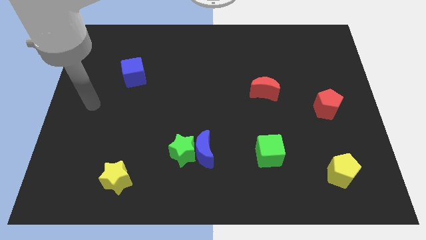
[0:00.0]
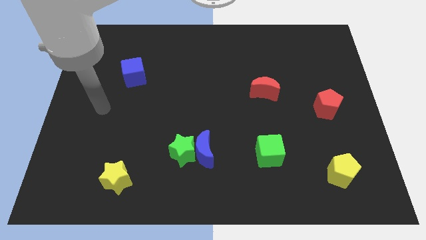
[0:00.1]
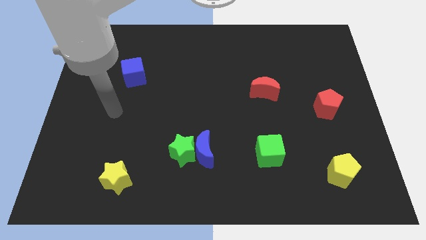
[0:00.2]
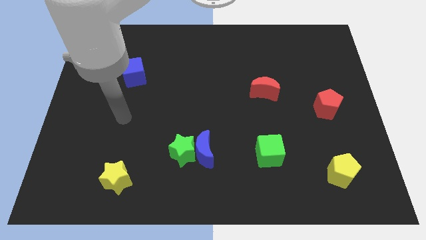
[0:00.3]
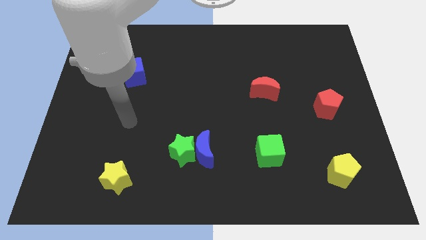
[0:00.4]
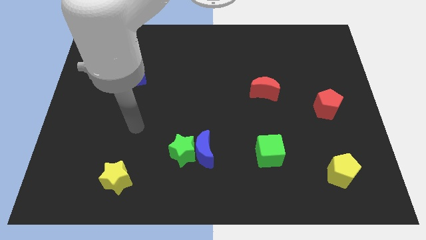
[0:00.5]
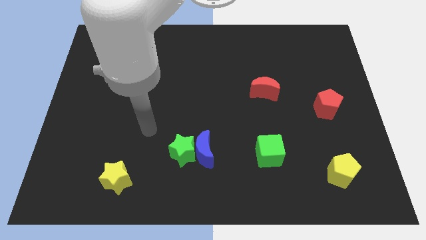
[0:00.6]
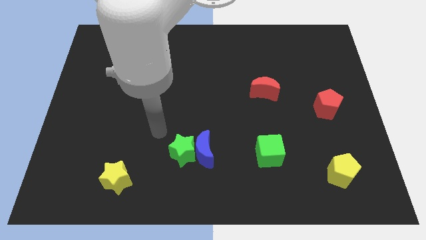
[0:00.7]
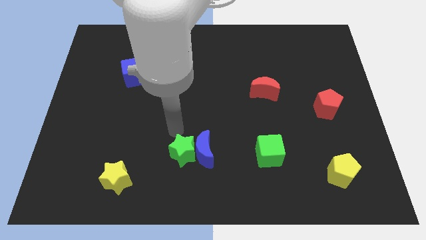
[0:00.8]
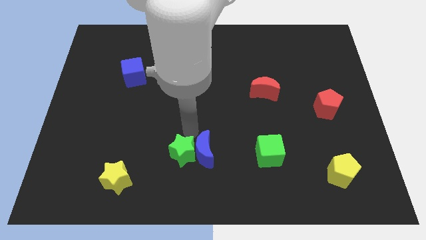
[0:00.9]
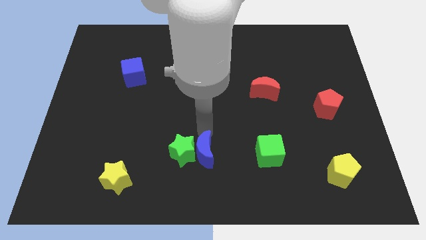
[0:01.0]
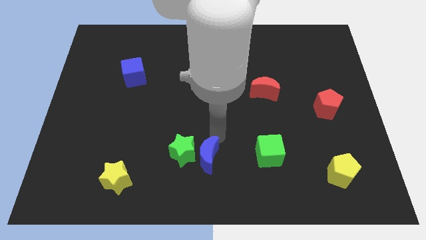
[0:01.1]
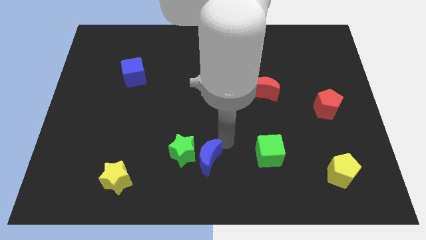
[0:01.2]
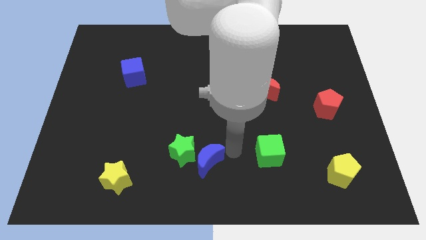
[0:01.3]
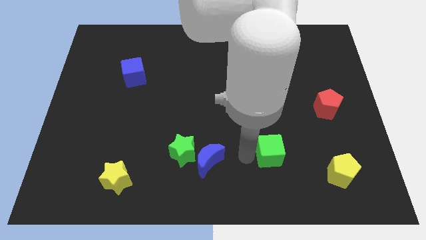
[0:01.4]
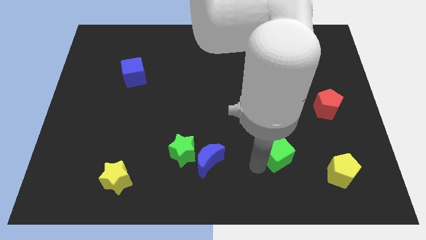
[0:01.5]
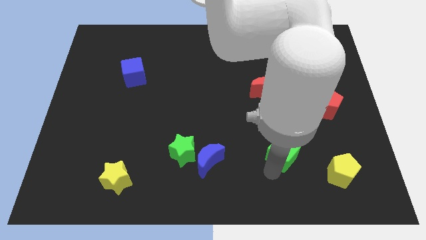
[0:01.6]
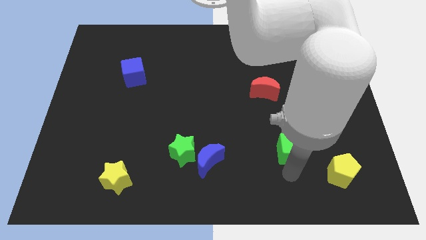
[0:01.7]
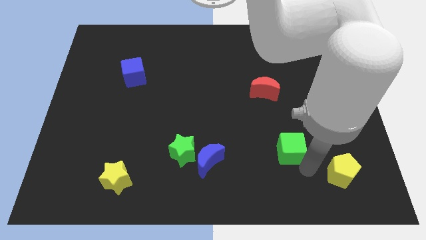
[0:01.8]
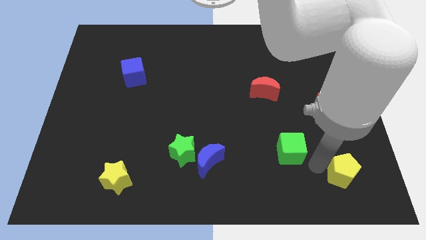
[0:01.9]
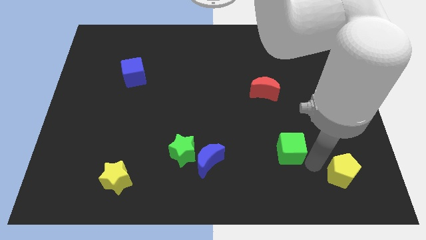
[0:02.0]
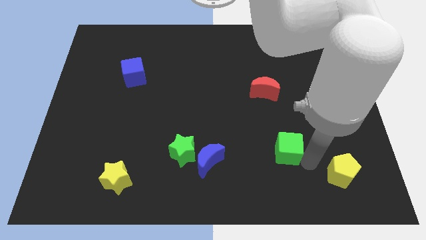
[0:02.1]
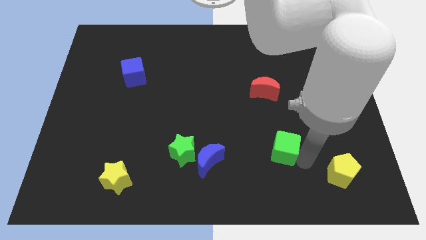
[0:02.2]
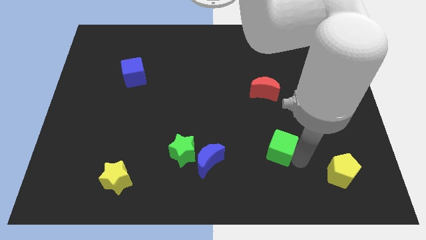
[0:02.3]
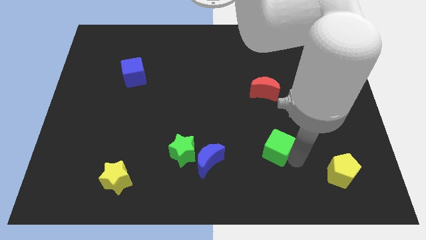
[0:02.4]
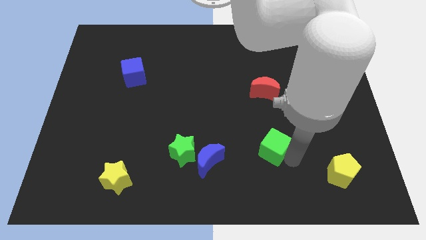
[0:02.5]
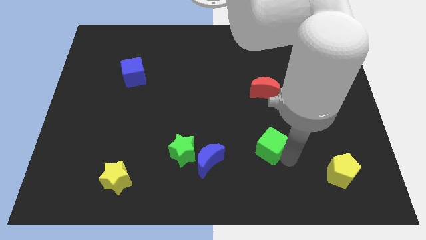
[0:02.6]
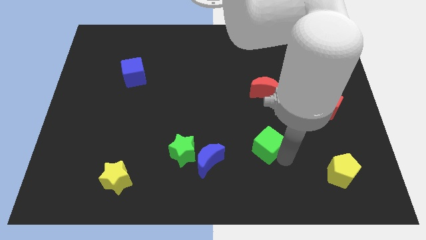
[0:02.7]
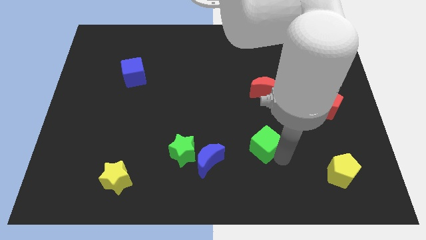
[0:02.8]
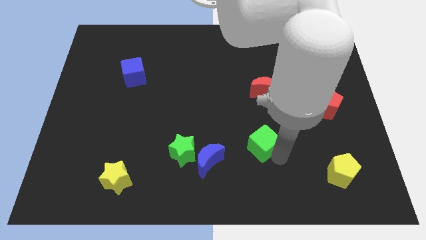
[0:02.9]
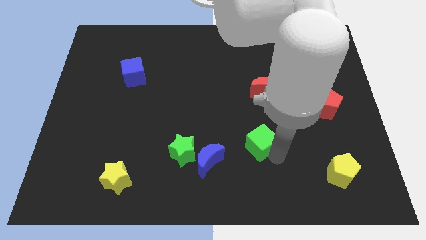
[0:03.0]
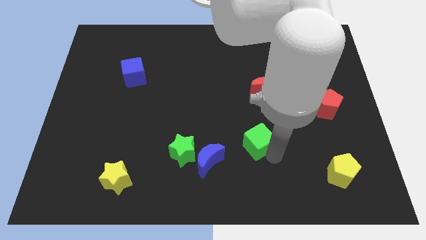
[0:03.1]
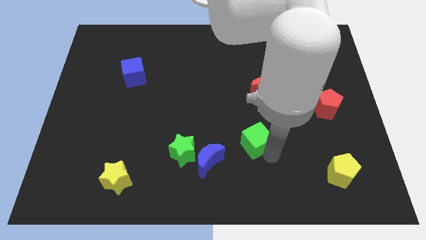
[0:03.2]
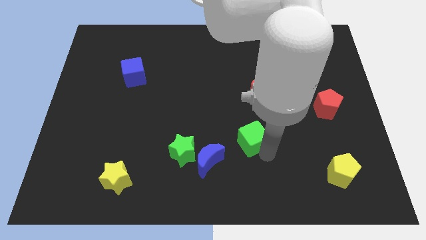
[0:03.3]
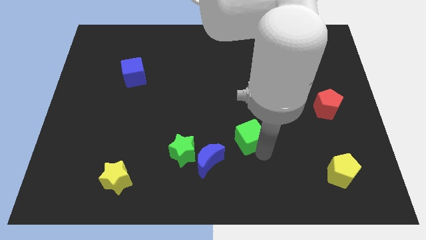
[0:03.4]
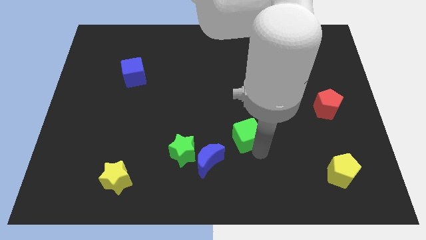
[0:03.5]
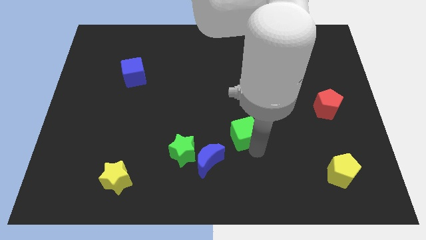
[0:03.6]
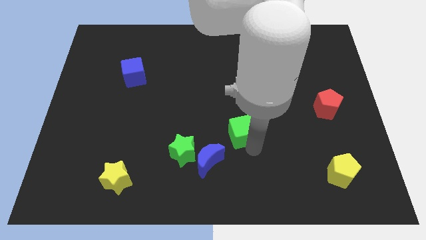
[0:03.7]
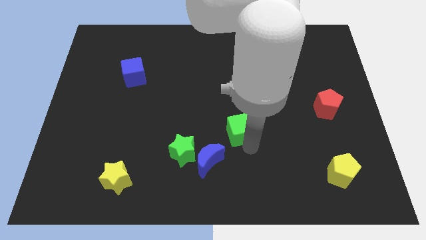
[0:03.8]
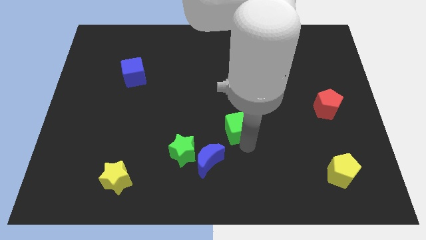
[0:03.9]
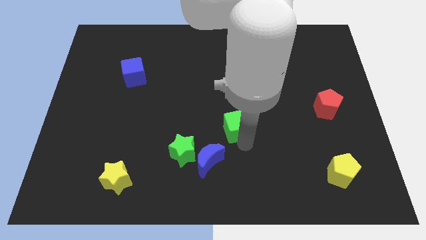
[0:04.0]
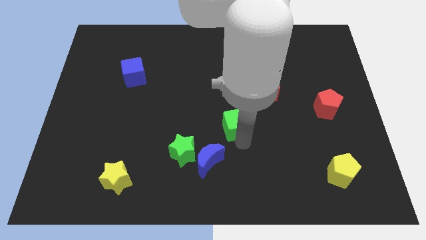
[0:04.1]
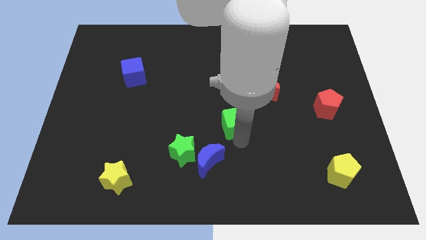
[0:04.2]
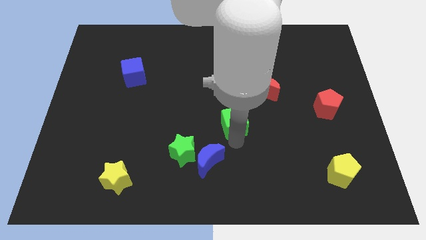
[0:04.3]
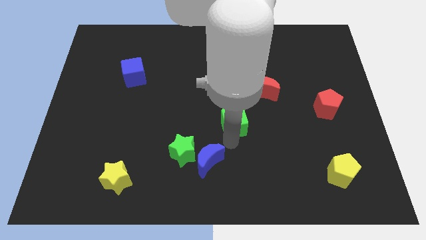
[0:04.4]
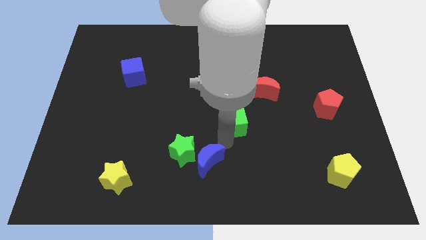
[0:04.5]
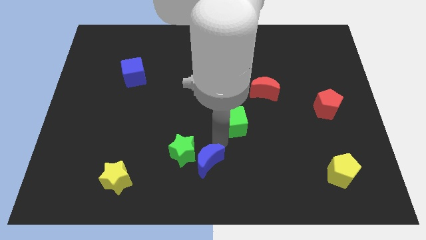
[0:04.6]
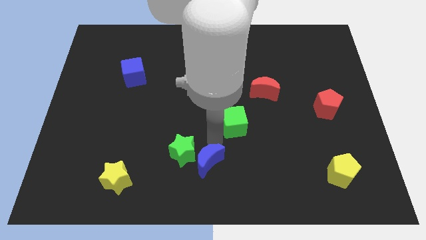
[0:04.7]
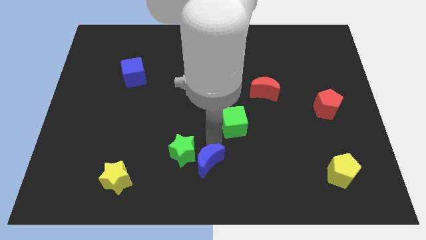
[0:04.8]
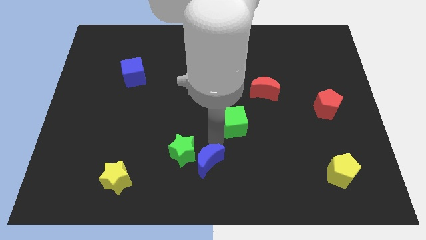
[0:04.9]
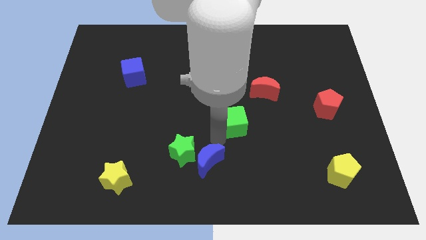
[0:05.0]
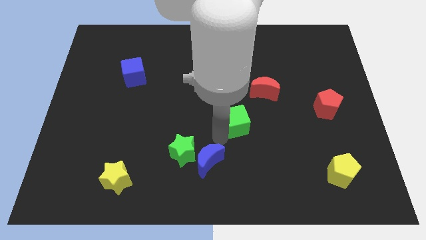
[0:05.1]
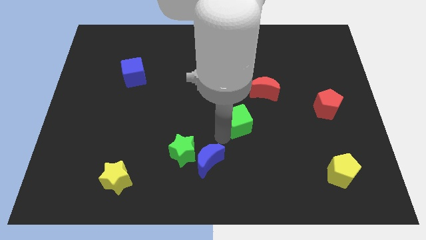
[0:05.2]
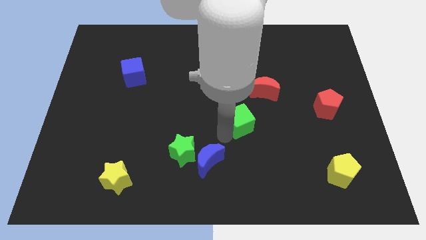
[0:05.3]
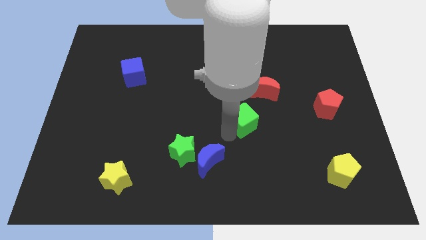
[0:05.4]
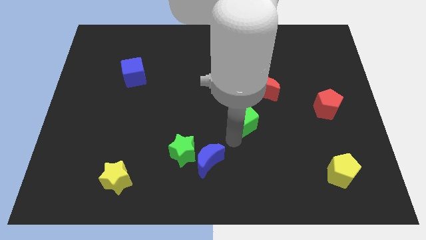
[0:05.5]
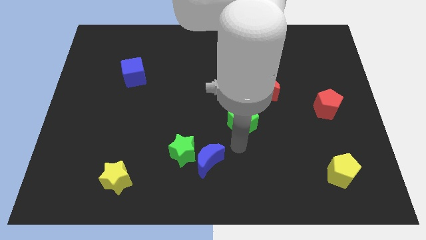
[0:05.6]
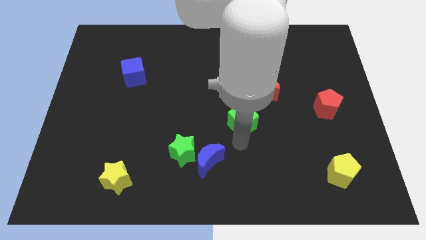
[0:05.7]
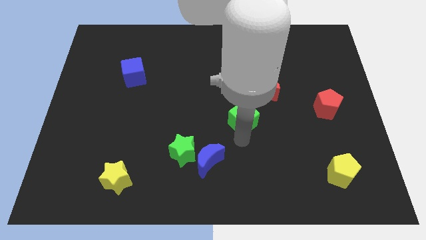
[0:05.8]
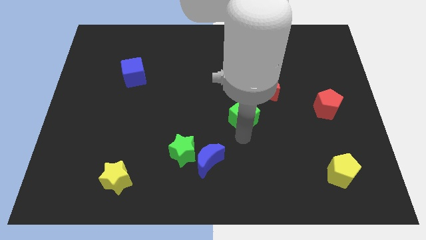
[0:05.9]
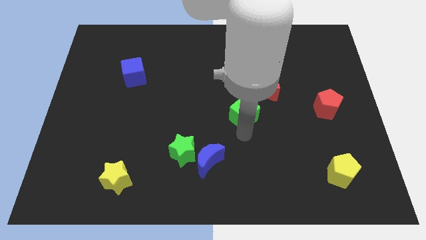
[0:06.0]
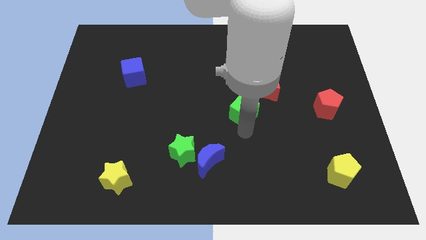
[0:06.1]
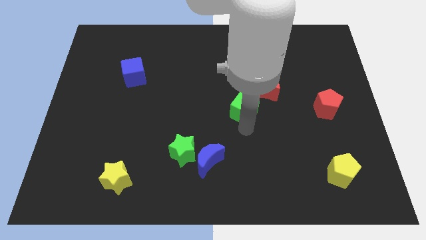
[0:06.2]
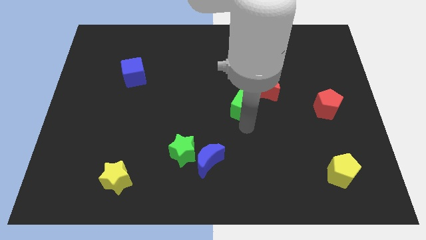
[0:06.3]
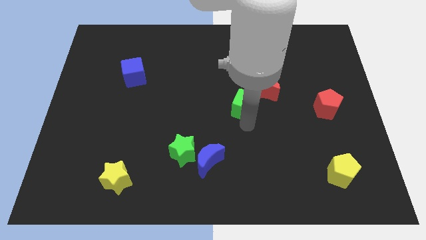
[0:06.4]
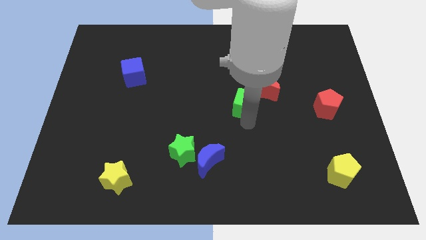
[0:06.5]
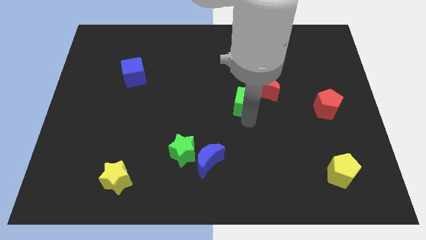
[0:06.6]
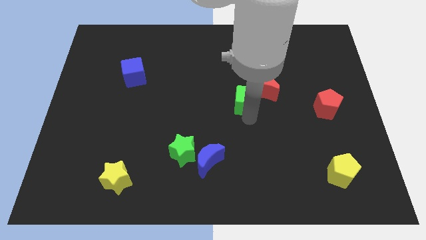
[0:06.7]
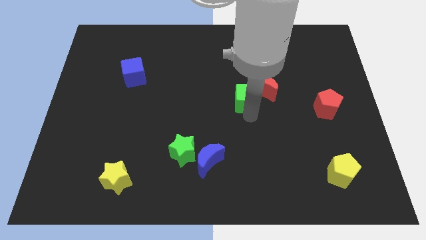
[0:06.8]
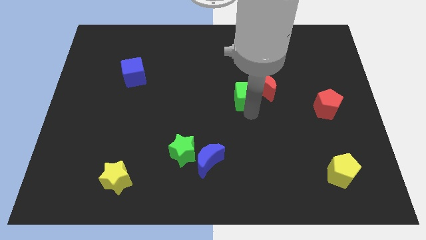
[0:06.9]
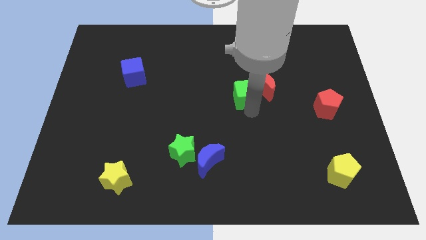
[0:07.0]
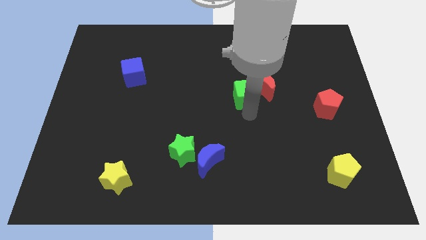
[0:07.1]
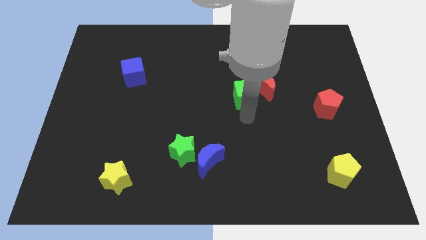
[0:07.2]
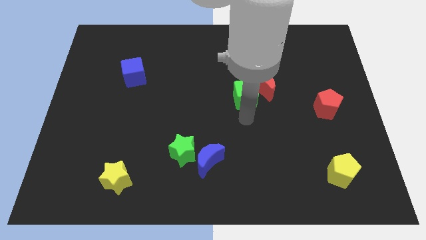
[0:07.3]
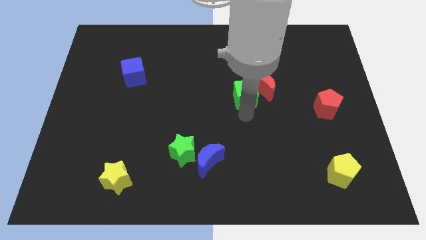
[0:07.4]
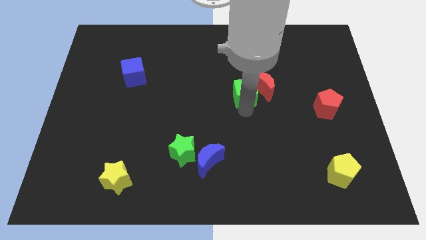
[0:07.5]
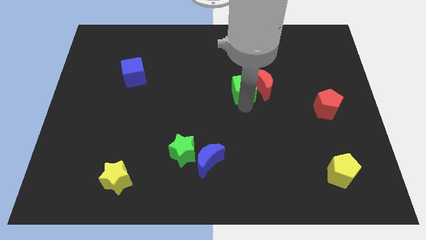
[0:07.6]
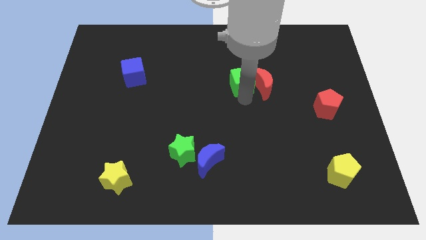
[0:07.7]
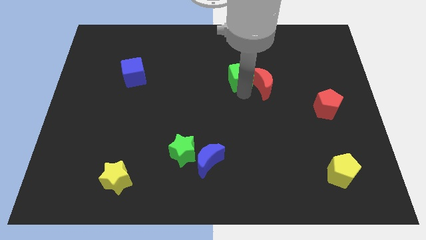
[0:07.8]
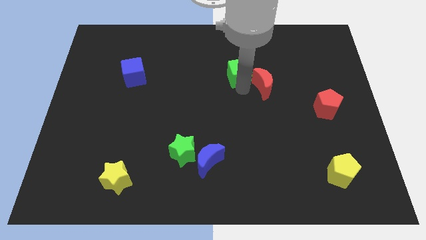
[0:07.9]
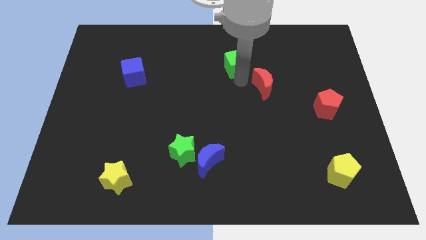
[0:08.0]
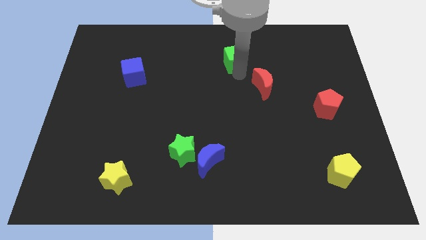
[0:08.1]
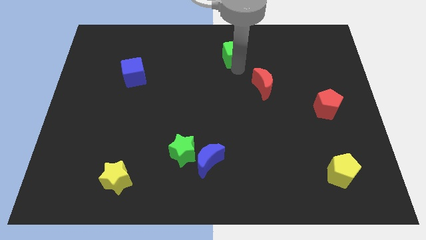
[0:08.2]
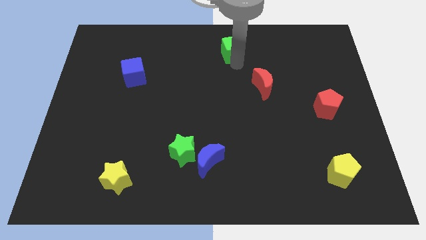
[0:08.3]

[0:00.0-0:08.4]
slide the green cube to the towards your base
